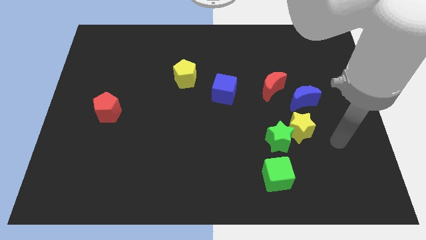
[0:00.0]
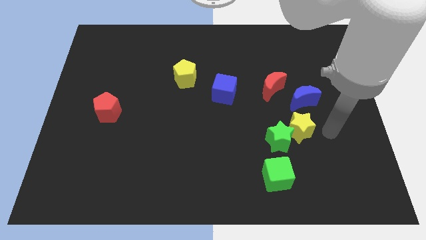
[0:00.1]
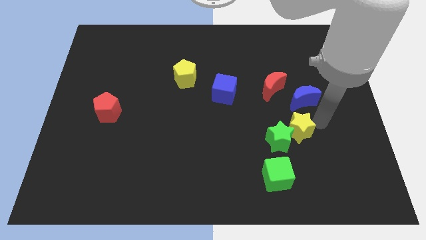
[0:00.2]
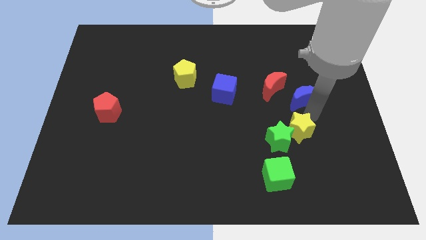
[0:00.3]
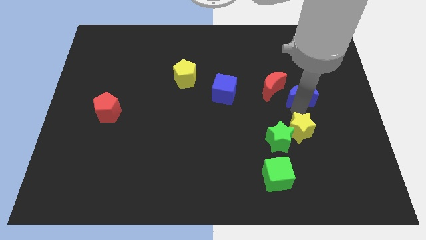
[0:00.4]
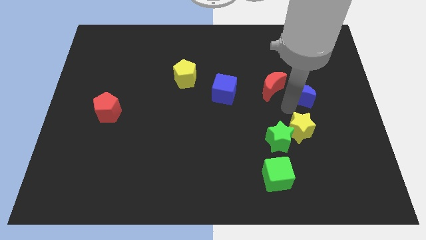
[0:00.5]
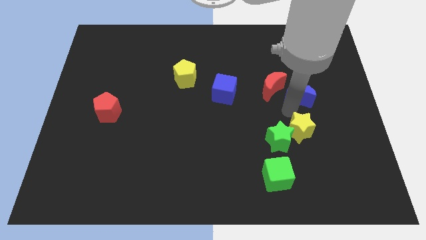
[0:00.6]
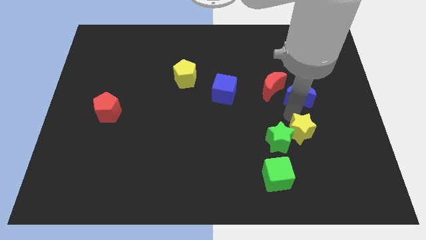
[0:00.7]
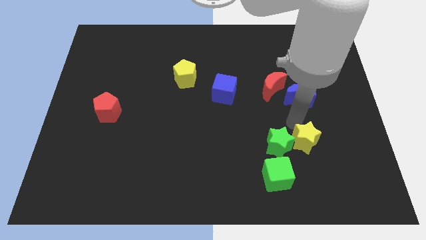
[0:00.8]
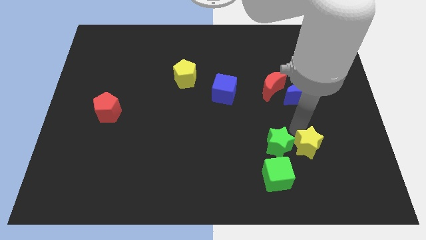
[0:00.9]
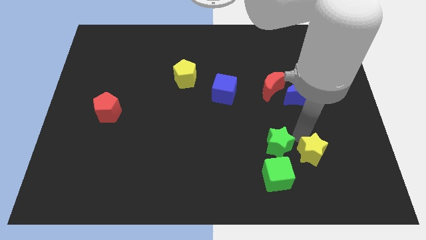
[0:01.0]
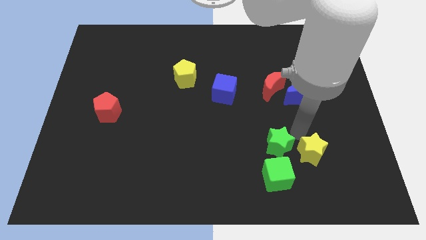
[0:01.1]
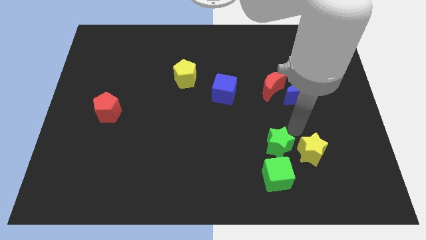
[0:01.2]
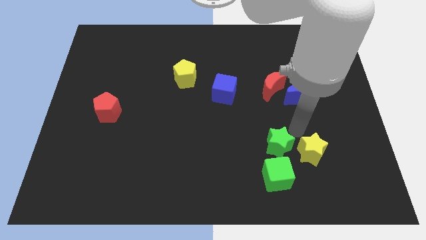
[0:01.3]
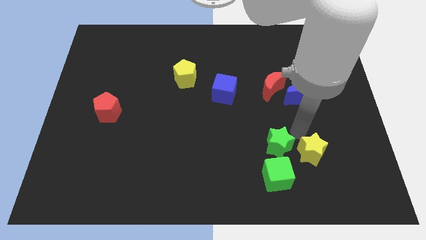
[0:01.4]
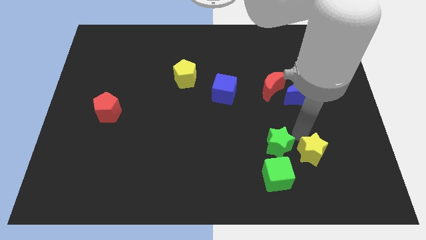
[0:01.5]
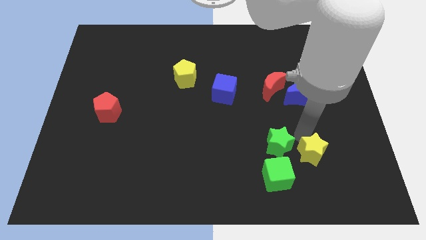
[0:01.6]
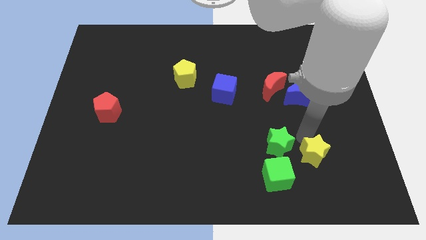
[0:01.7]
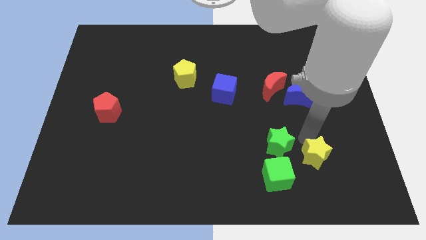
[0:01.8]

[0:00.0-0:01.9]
pull the yellow star apart from the green star and blue moon

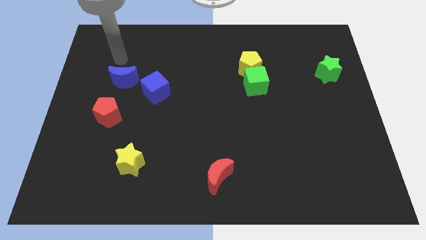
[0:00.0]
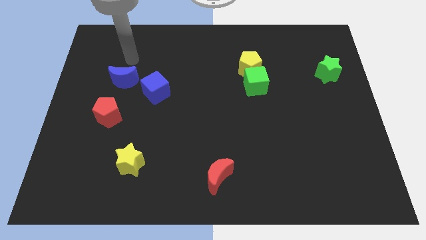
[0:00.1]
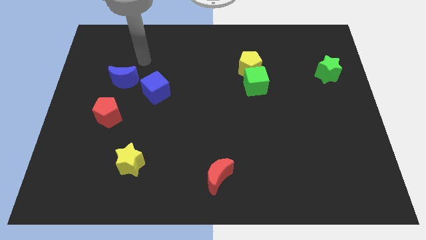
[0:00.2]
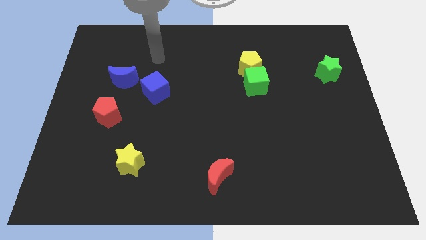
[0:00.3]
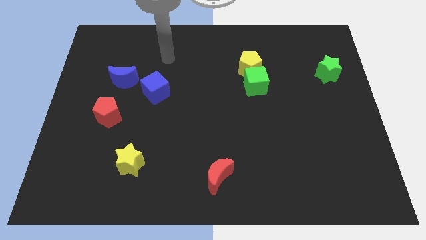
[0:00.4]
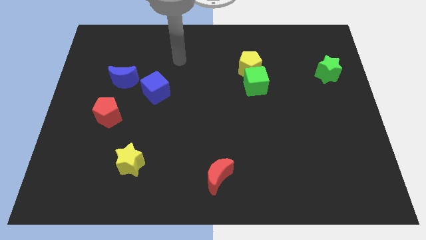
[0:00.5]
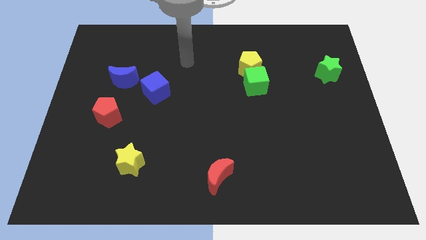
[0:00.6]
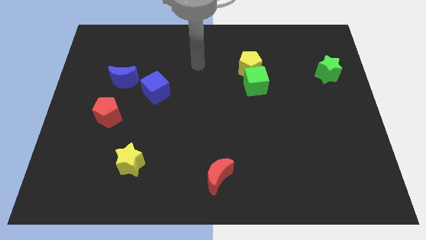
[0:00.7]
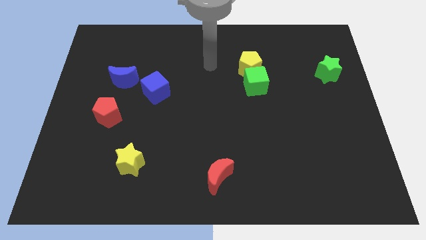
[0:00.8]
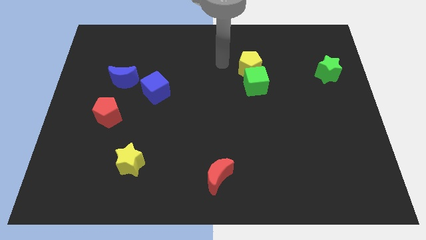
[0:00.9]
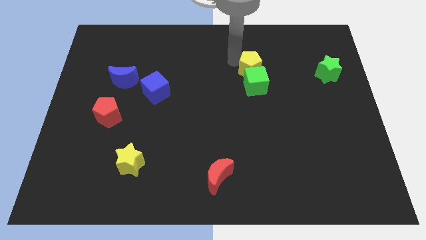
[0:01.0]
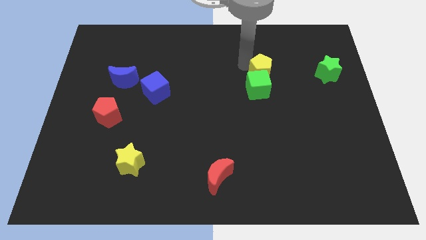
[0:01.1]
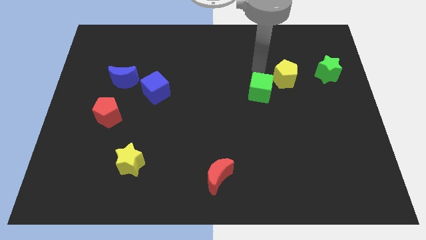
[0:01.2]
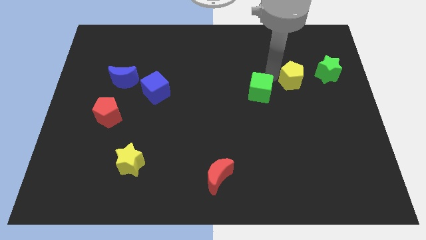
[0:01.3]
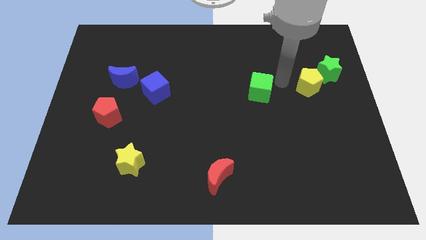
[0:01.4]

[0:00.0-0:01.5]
move the green cube away from the yellow pentagon

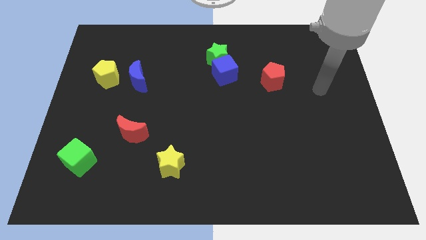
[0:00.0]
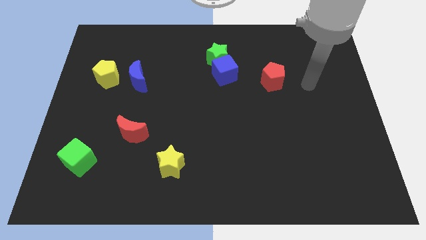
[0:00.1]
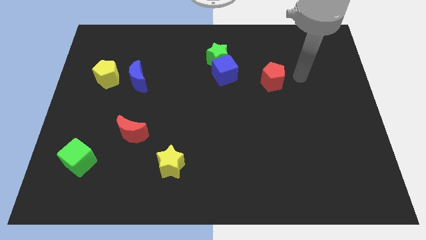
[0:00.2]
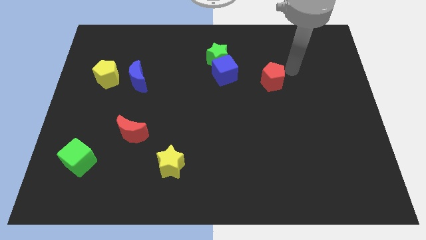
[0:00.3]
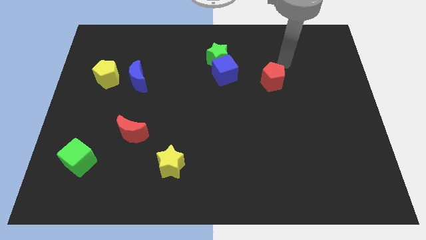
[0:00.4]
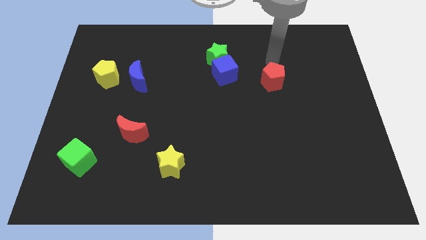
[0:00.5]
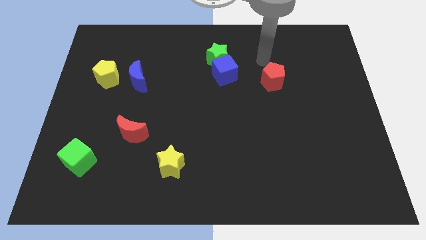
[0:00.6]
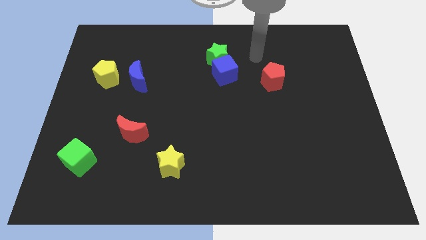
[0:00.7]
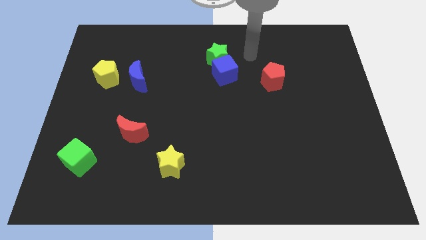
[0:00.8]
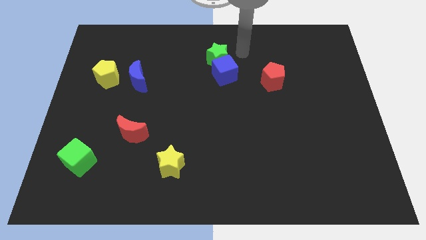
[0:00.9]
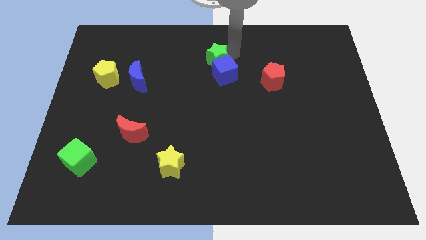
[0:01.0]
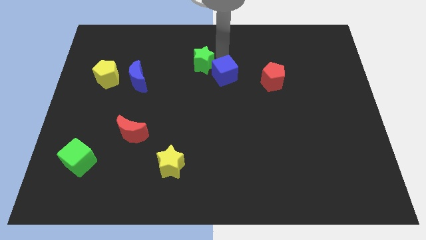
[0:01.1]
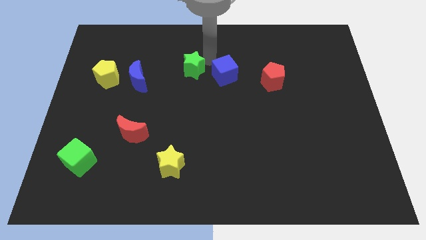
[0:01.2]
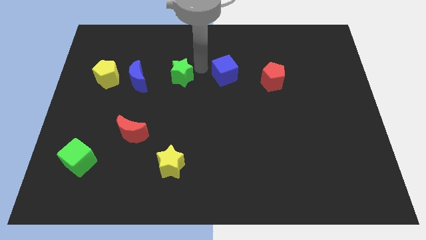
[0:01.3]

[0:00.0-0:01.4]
move the blue cube away from the green star

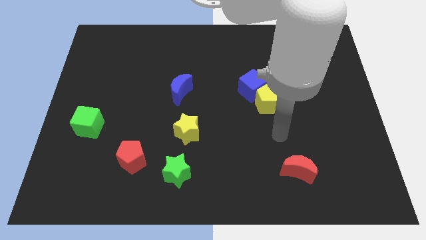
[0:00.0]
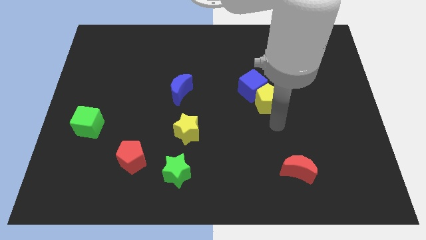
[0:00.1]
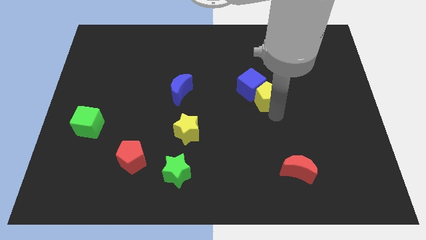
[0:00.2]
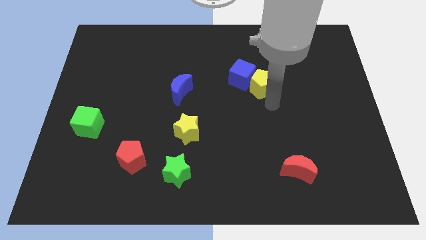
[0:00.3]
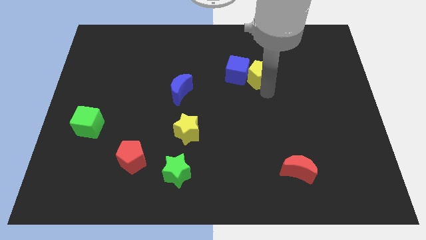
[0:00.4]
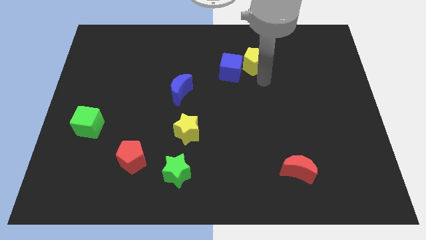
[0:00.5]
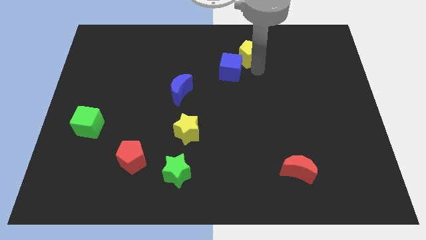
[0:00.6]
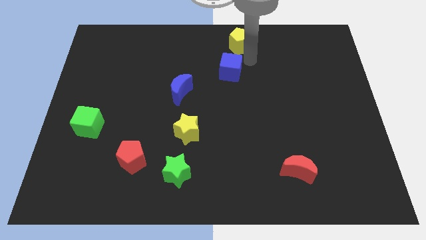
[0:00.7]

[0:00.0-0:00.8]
move the blue cube away from the yellow pentagon

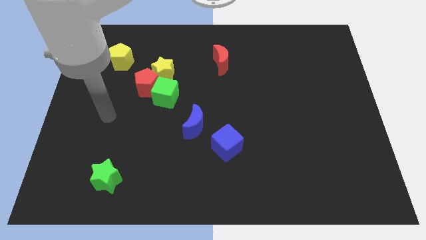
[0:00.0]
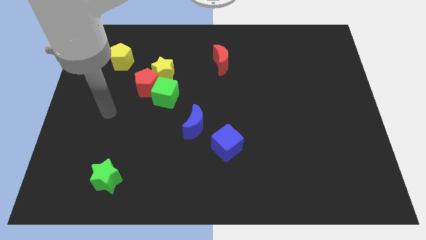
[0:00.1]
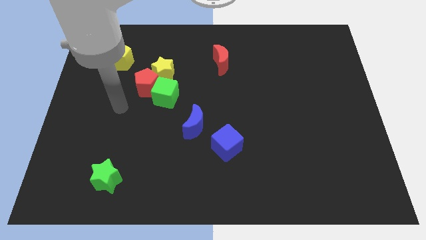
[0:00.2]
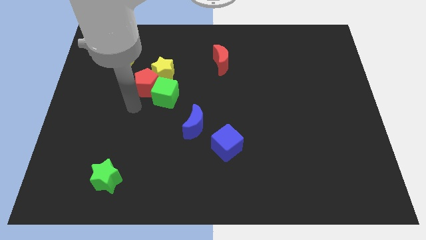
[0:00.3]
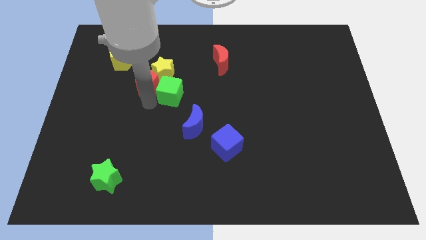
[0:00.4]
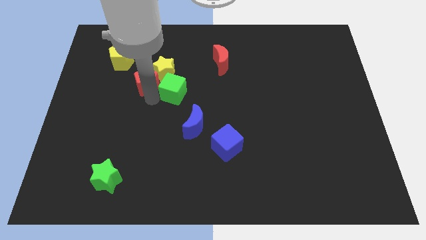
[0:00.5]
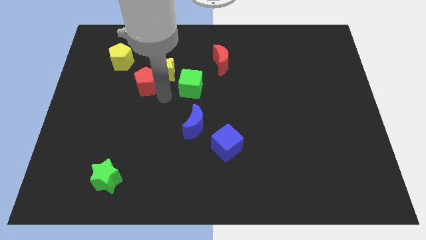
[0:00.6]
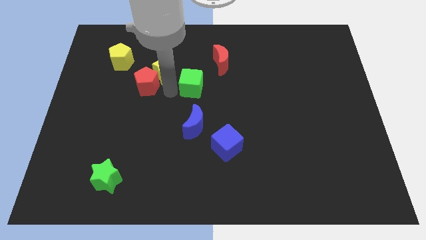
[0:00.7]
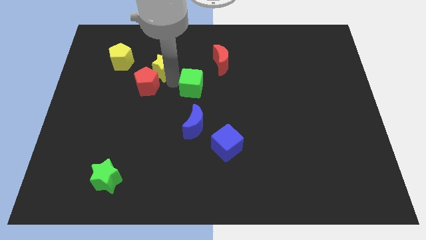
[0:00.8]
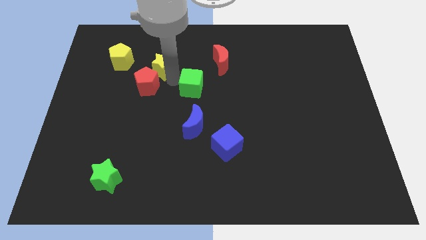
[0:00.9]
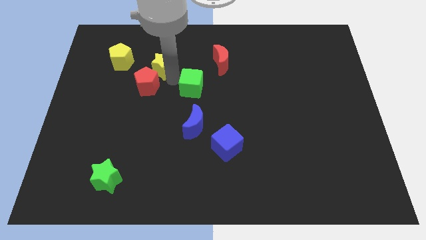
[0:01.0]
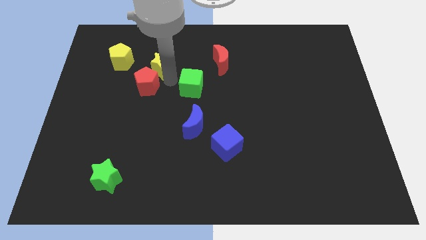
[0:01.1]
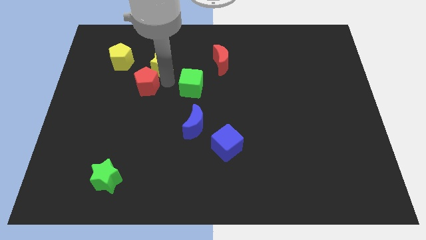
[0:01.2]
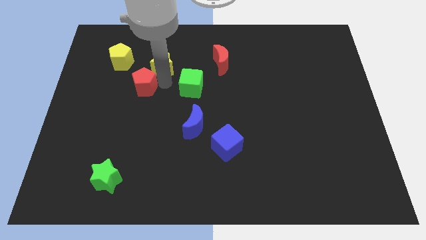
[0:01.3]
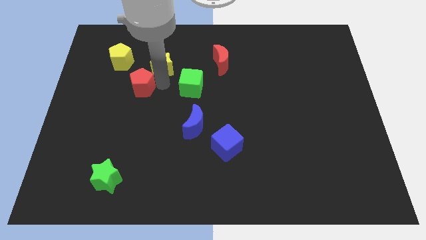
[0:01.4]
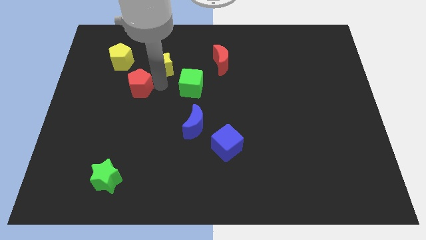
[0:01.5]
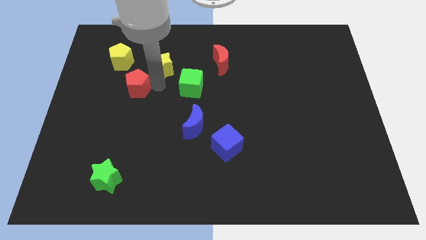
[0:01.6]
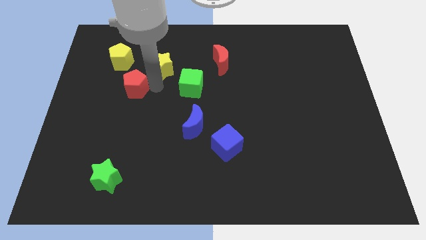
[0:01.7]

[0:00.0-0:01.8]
separate the red pentagon from the yellow star and green cube

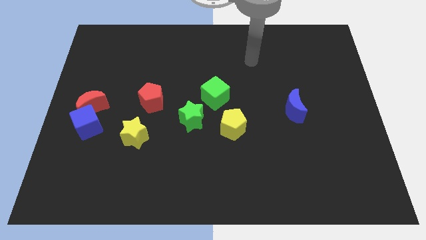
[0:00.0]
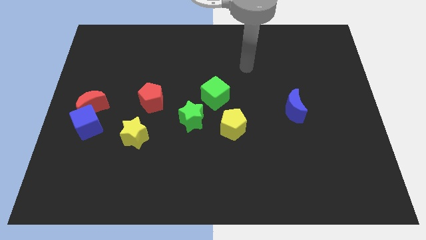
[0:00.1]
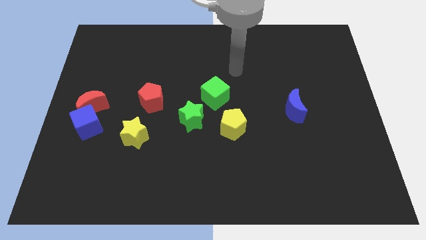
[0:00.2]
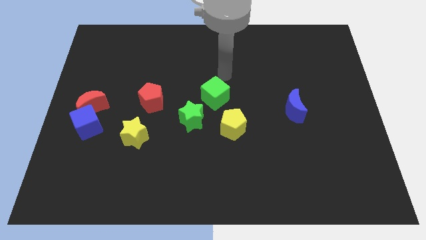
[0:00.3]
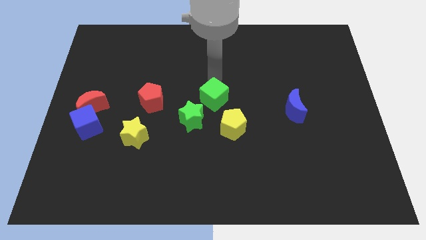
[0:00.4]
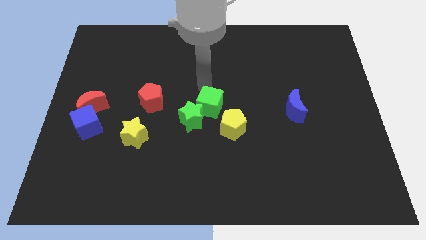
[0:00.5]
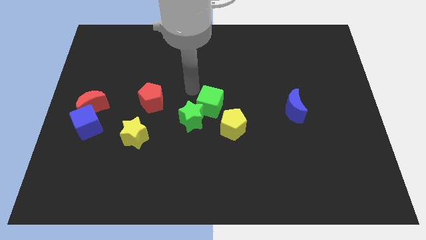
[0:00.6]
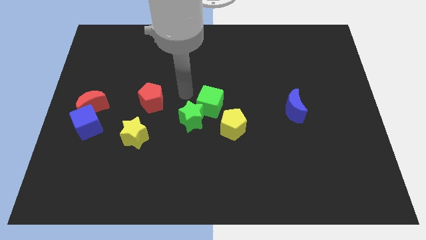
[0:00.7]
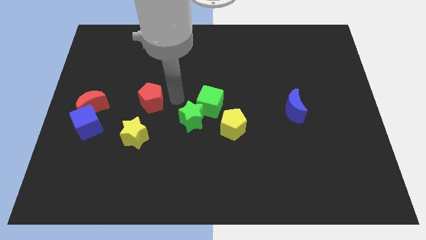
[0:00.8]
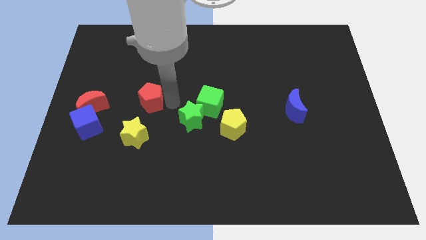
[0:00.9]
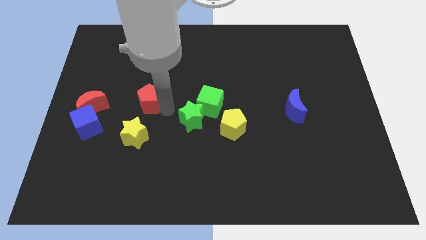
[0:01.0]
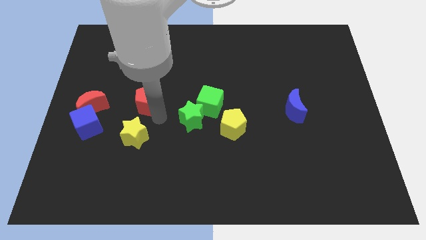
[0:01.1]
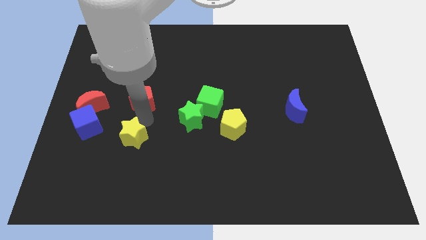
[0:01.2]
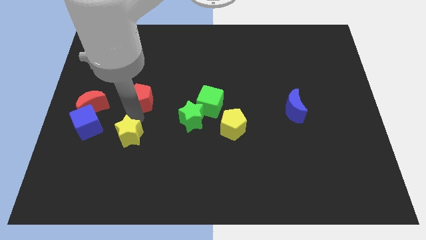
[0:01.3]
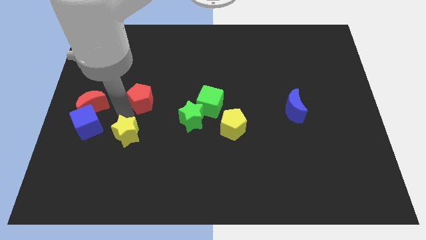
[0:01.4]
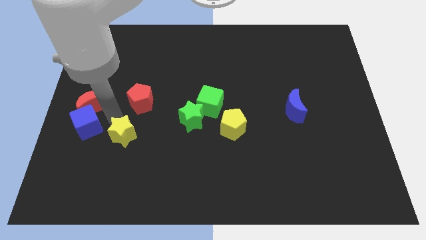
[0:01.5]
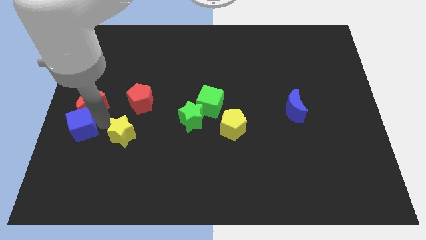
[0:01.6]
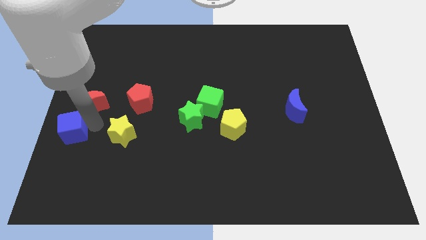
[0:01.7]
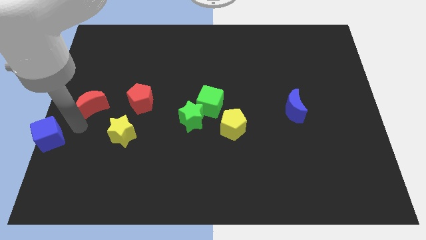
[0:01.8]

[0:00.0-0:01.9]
separate the red moon from the blue cube
